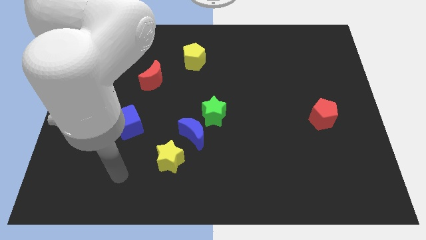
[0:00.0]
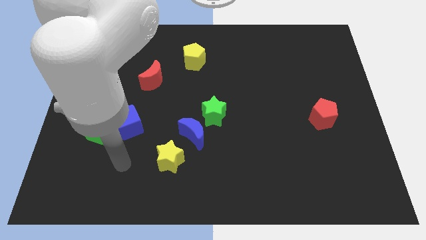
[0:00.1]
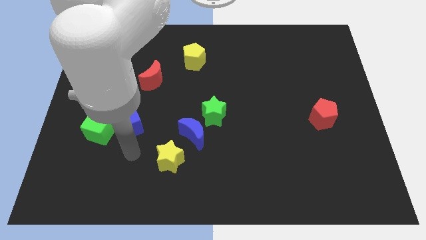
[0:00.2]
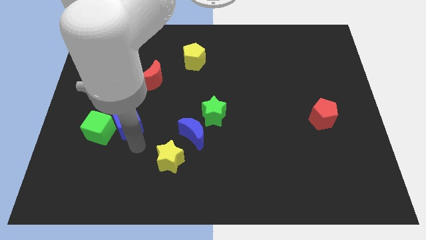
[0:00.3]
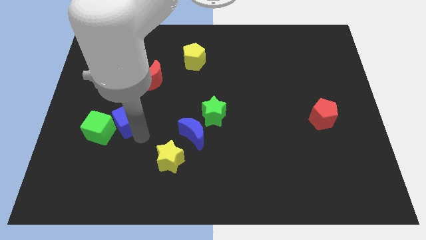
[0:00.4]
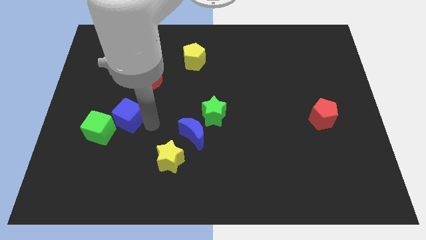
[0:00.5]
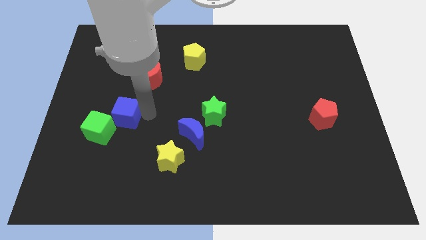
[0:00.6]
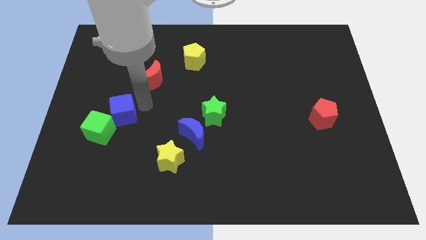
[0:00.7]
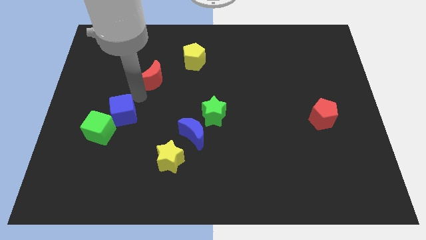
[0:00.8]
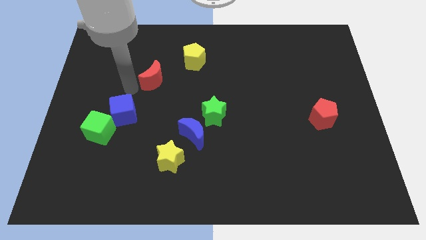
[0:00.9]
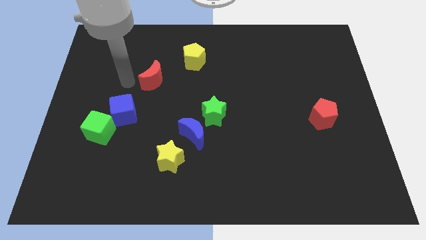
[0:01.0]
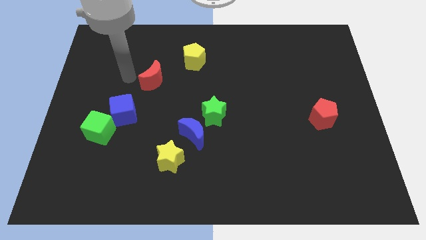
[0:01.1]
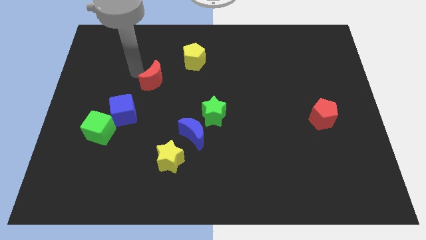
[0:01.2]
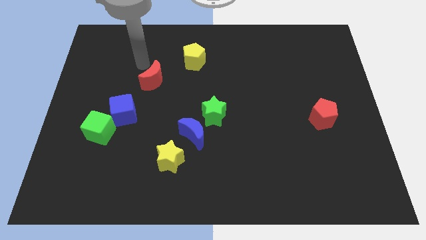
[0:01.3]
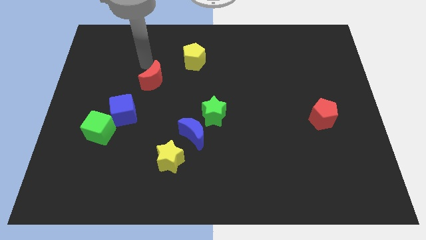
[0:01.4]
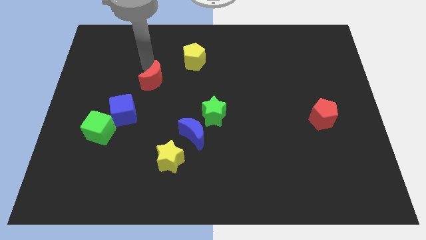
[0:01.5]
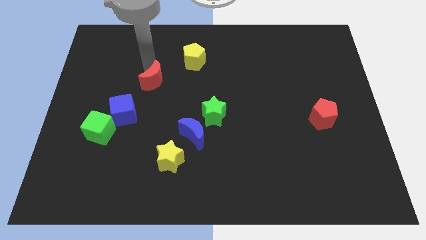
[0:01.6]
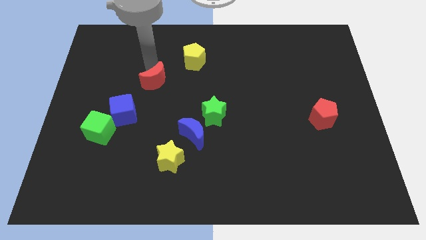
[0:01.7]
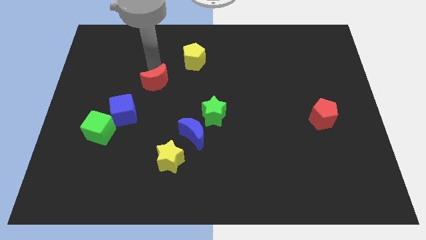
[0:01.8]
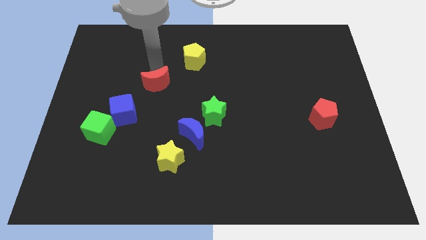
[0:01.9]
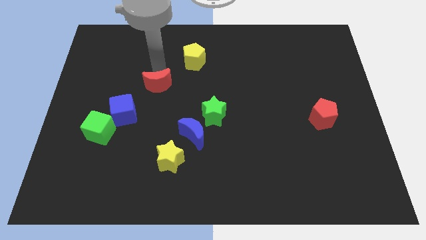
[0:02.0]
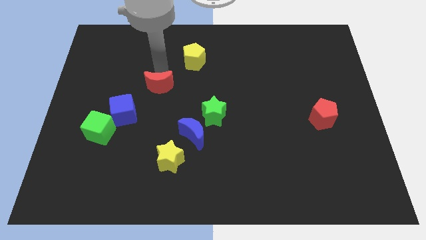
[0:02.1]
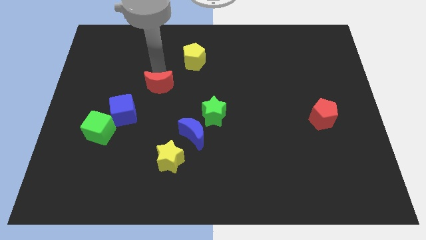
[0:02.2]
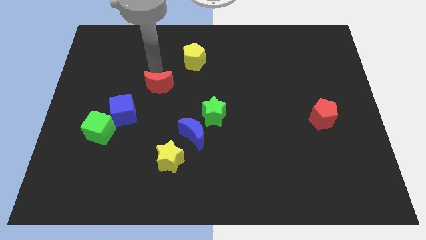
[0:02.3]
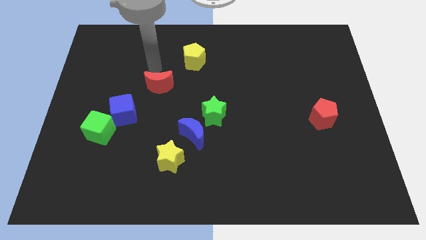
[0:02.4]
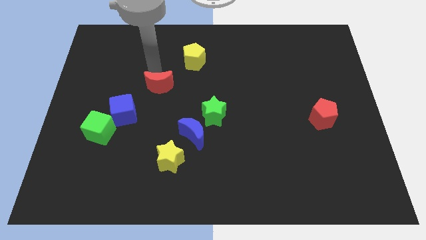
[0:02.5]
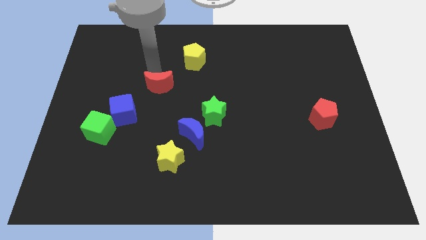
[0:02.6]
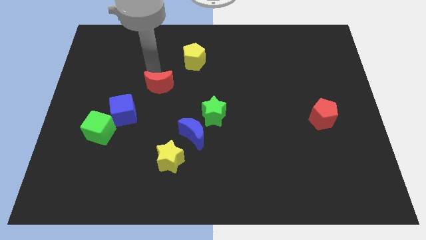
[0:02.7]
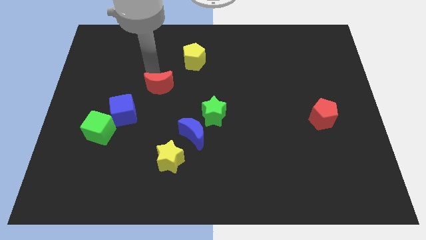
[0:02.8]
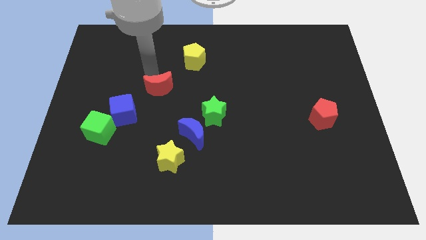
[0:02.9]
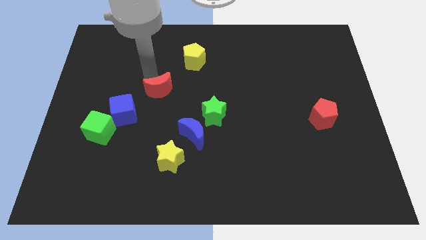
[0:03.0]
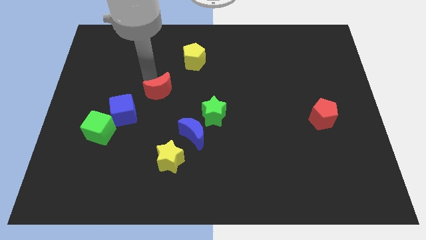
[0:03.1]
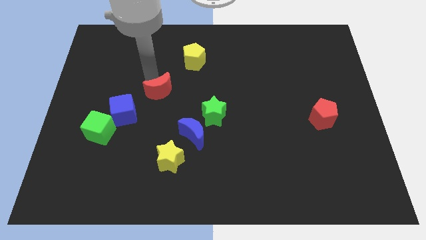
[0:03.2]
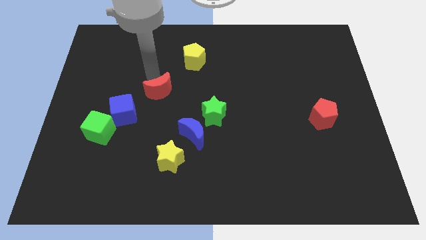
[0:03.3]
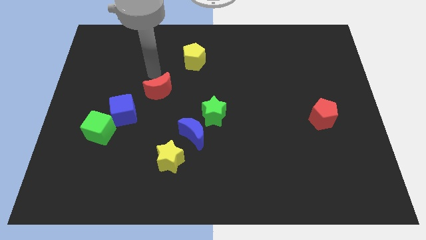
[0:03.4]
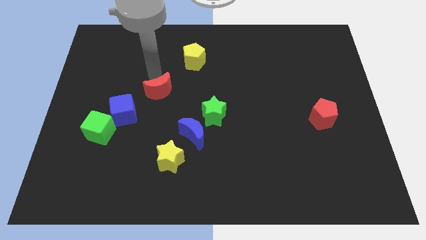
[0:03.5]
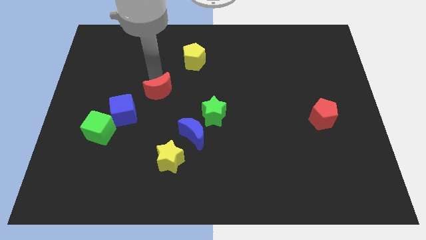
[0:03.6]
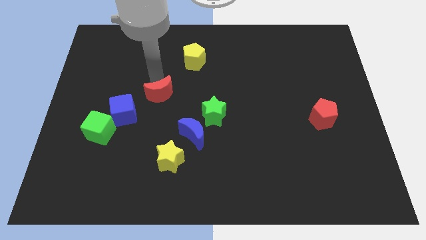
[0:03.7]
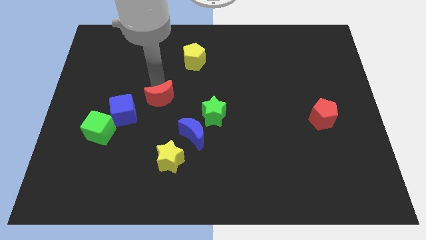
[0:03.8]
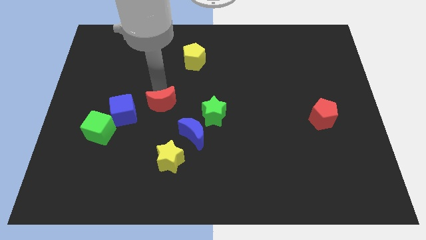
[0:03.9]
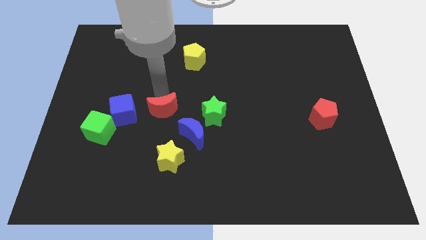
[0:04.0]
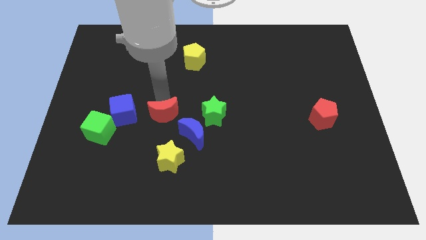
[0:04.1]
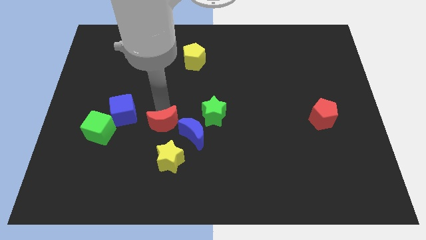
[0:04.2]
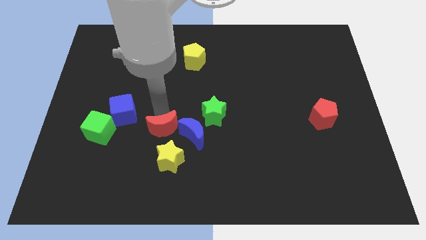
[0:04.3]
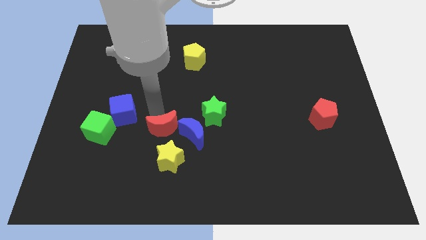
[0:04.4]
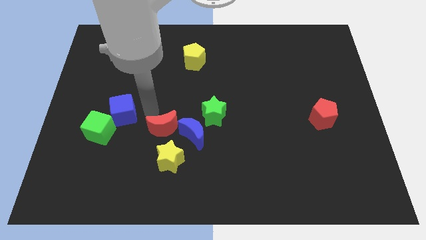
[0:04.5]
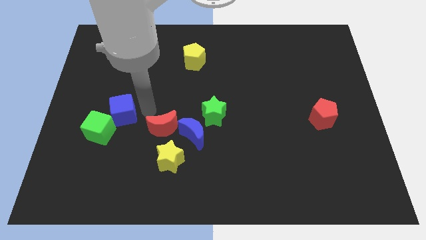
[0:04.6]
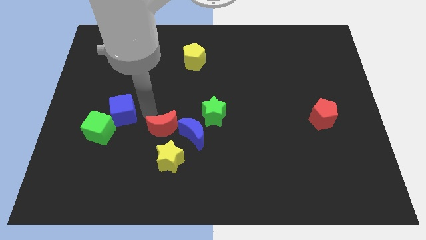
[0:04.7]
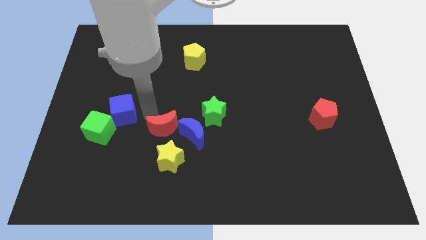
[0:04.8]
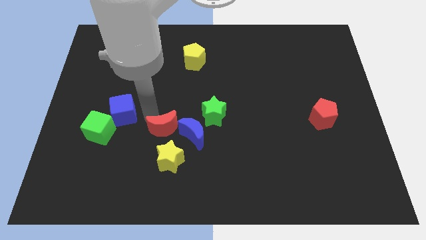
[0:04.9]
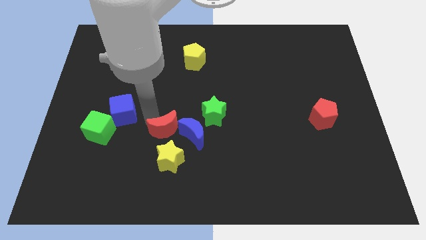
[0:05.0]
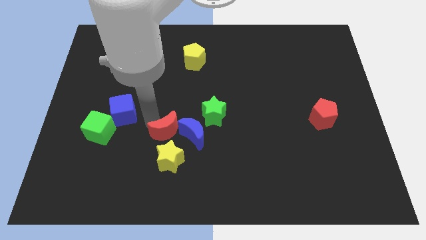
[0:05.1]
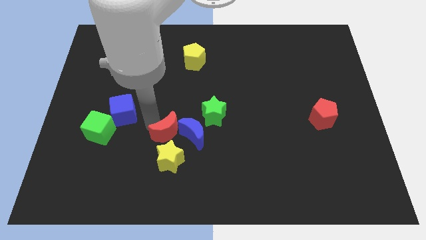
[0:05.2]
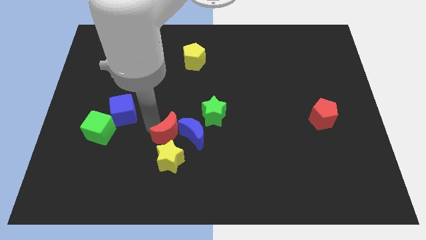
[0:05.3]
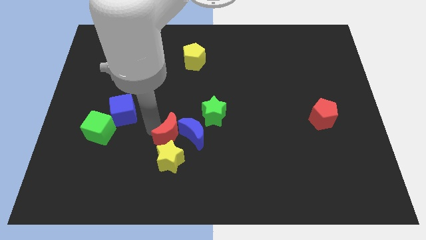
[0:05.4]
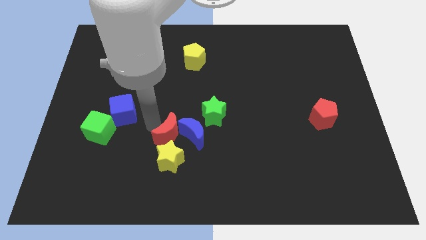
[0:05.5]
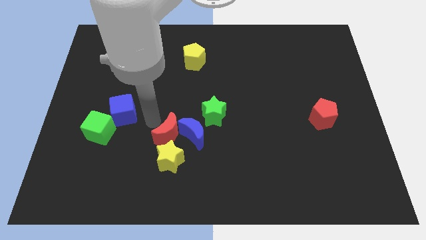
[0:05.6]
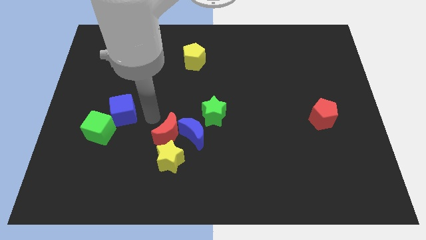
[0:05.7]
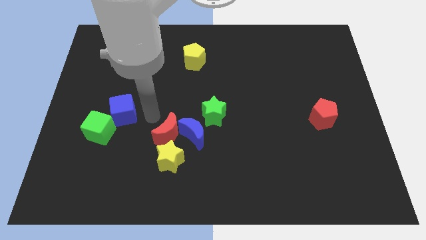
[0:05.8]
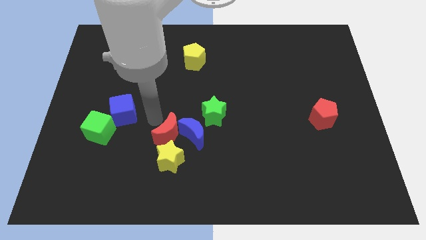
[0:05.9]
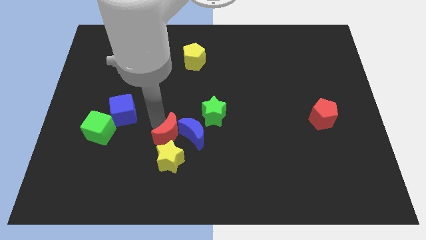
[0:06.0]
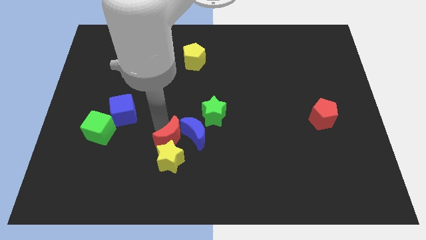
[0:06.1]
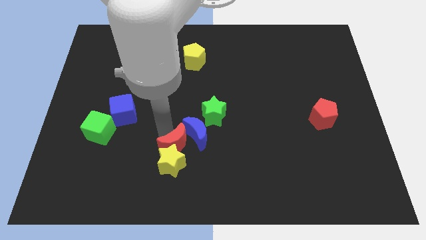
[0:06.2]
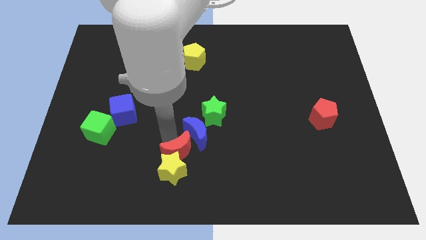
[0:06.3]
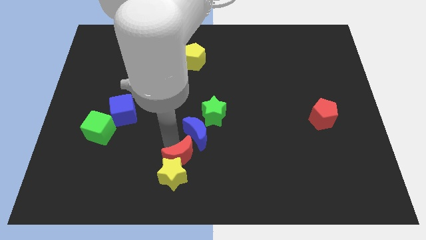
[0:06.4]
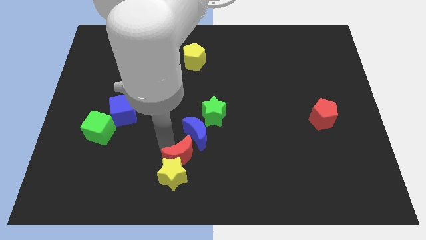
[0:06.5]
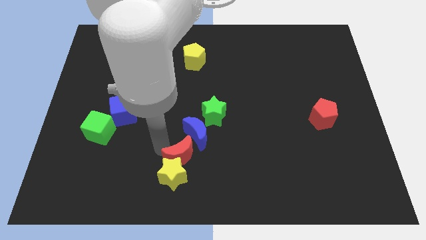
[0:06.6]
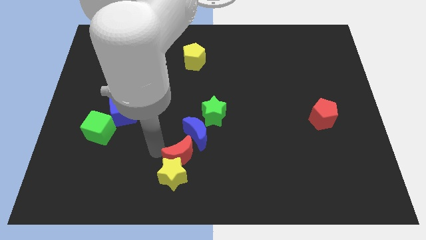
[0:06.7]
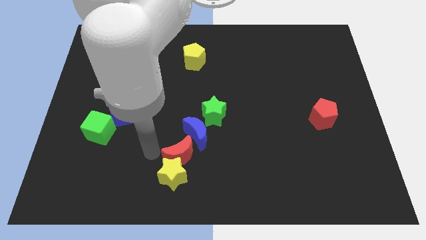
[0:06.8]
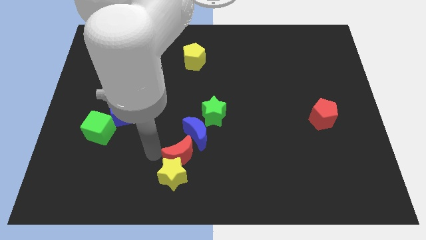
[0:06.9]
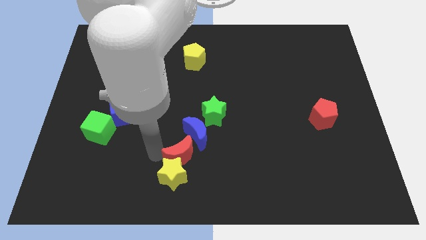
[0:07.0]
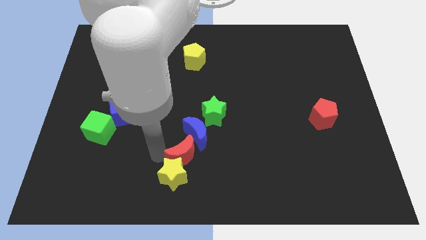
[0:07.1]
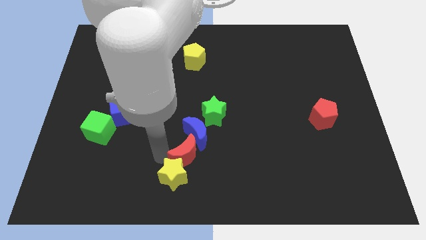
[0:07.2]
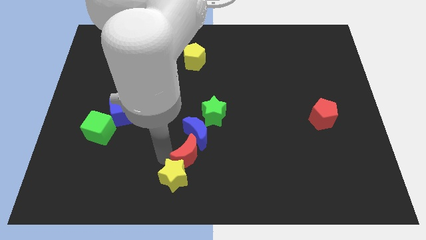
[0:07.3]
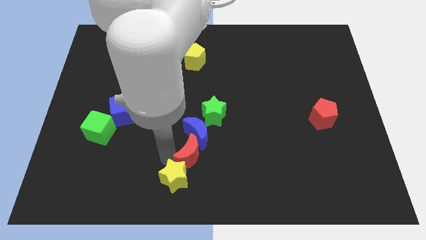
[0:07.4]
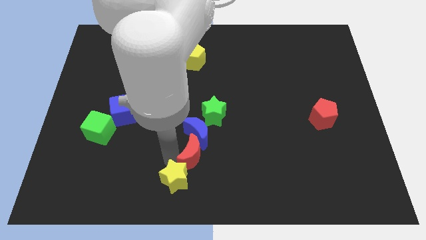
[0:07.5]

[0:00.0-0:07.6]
push the red moon down and to the right diagonally

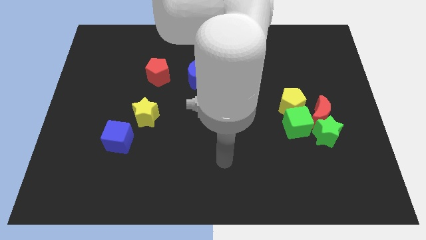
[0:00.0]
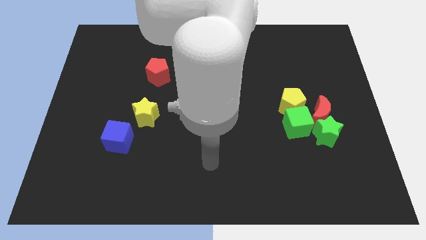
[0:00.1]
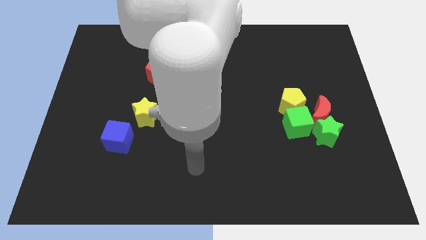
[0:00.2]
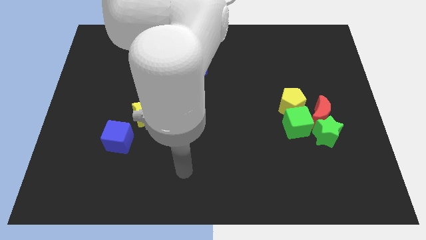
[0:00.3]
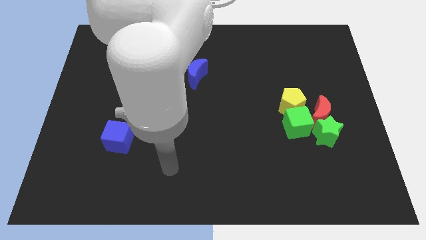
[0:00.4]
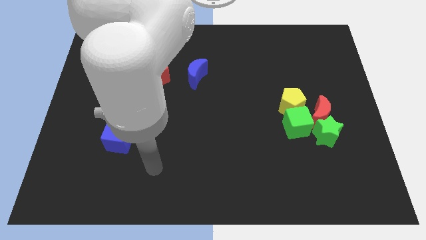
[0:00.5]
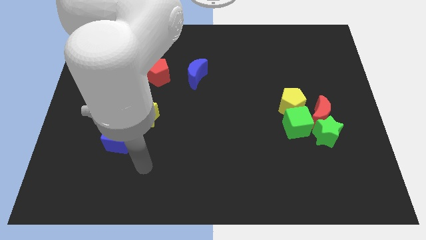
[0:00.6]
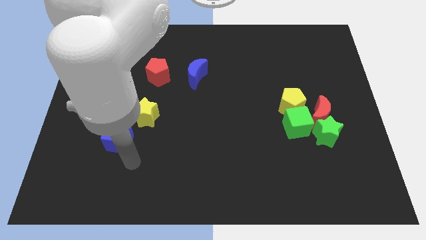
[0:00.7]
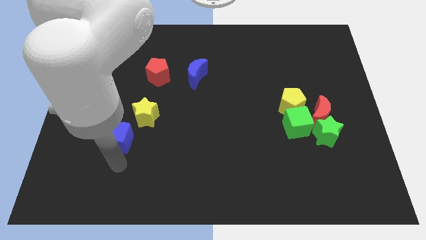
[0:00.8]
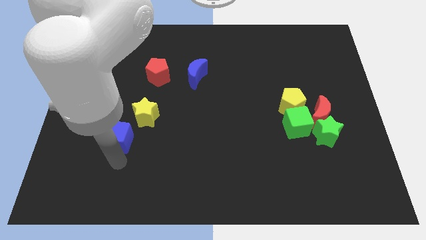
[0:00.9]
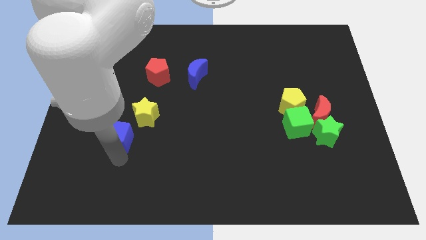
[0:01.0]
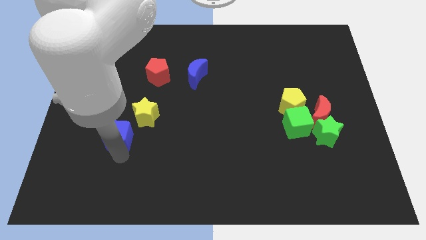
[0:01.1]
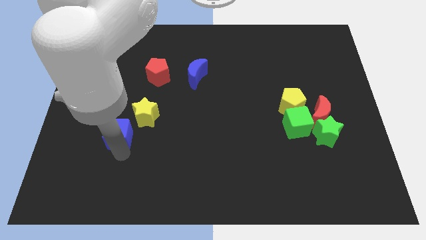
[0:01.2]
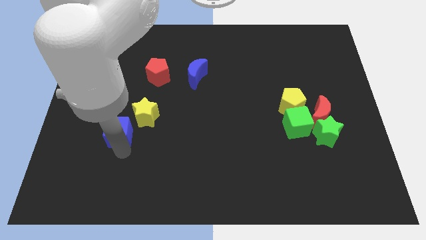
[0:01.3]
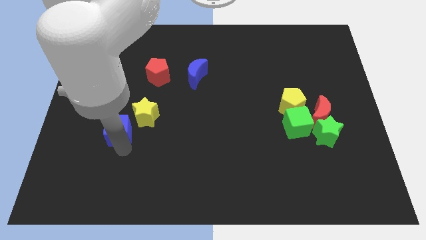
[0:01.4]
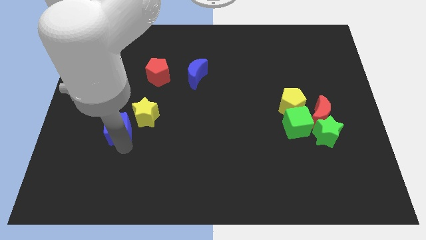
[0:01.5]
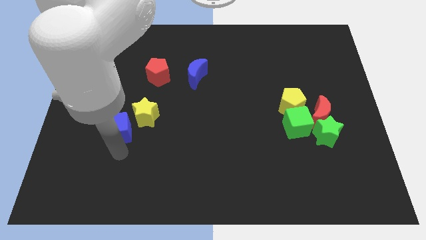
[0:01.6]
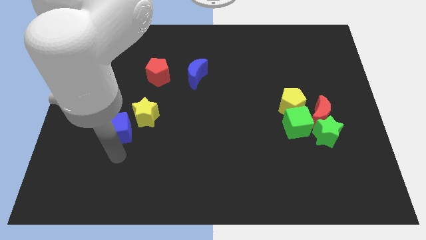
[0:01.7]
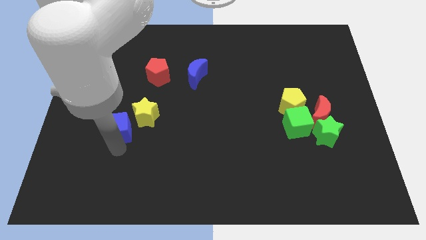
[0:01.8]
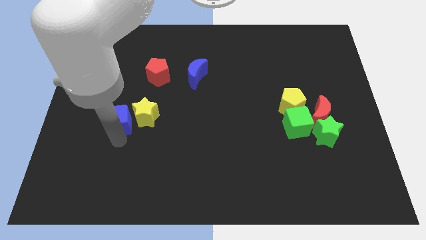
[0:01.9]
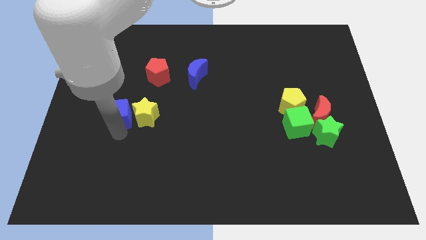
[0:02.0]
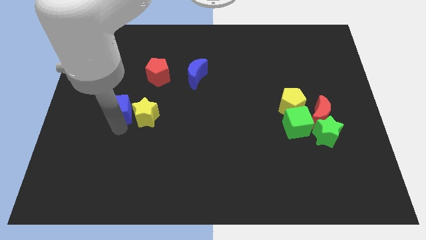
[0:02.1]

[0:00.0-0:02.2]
slightly push the blue cube up
